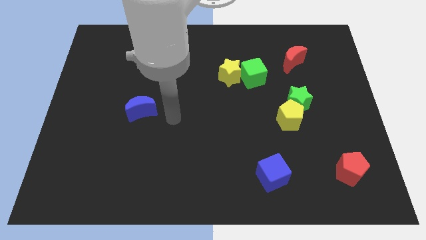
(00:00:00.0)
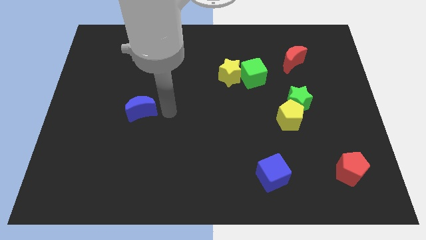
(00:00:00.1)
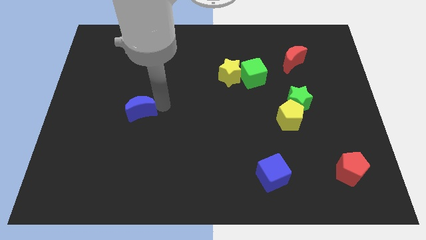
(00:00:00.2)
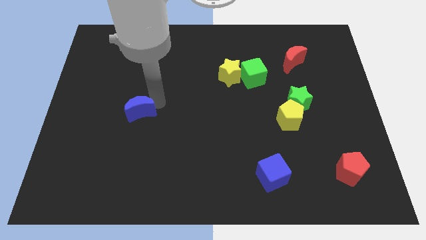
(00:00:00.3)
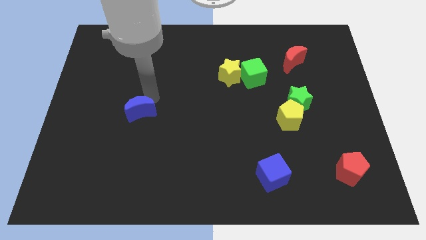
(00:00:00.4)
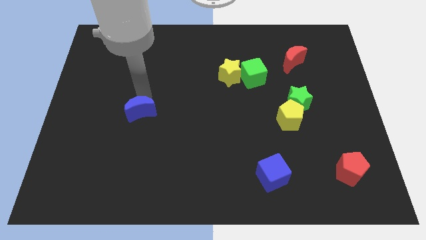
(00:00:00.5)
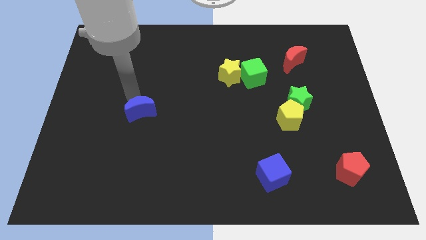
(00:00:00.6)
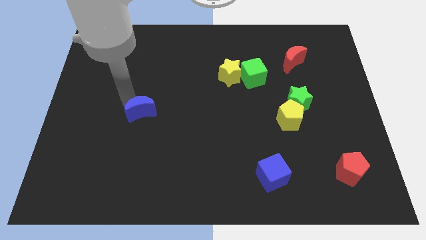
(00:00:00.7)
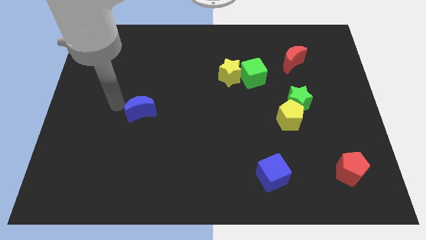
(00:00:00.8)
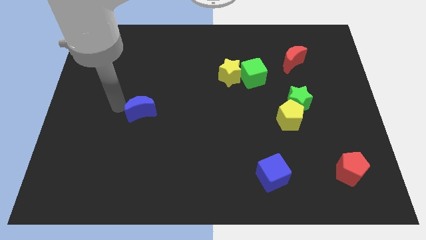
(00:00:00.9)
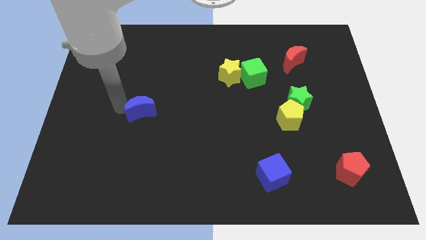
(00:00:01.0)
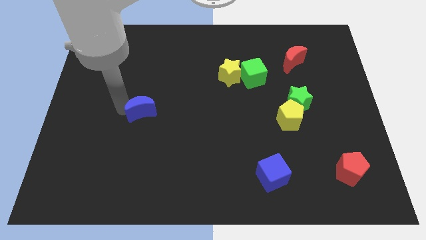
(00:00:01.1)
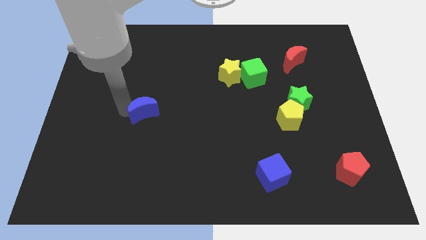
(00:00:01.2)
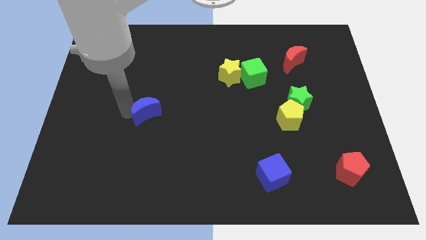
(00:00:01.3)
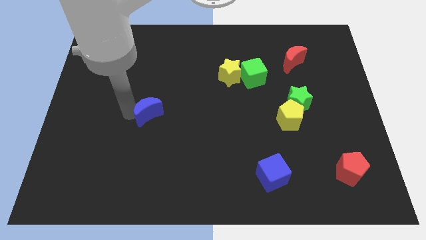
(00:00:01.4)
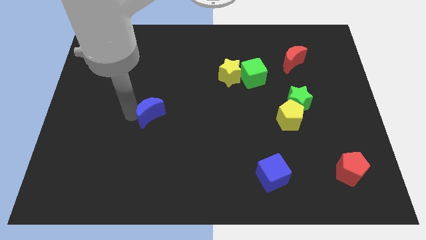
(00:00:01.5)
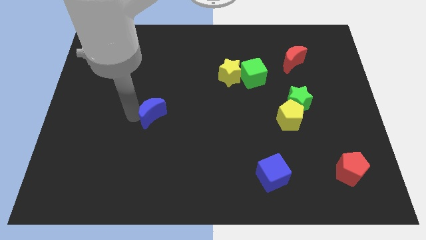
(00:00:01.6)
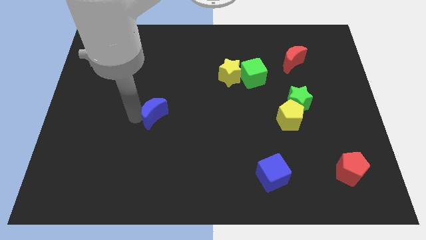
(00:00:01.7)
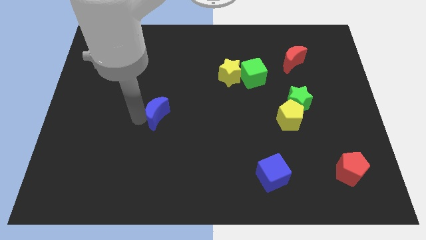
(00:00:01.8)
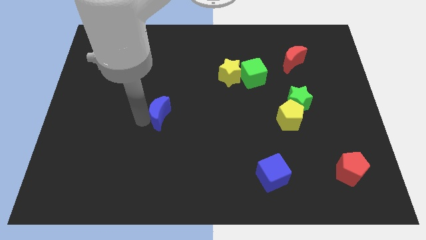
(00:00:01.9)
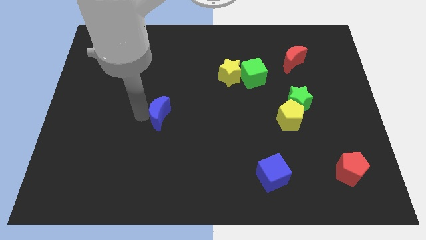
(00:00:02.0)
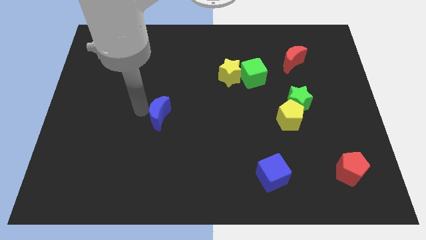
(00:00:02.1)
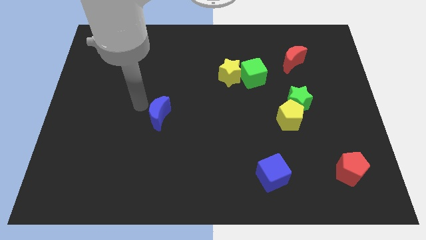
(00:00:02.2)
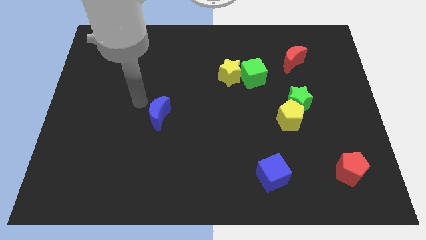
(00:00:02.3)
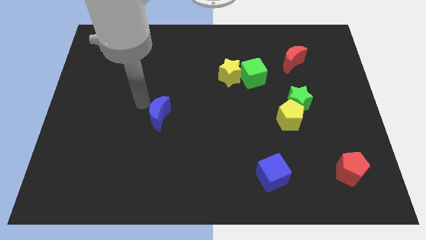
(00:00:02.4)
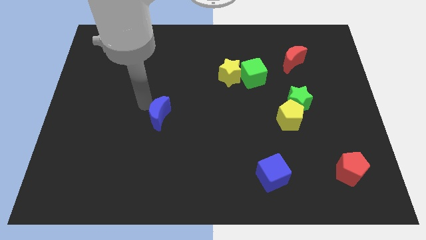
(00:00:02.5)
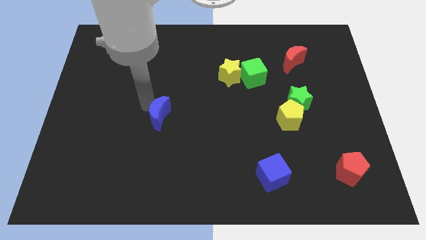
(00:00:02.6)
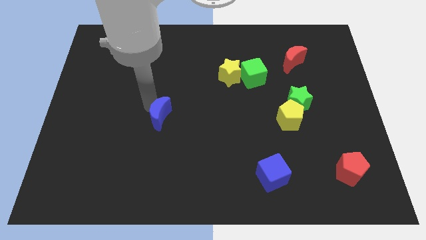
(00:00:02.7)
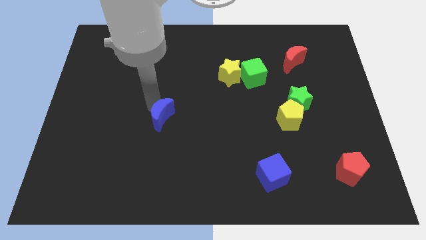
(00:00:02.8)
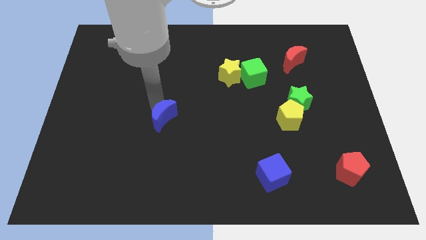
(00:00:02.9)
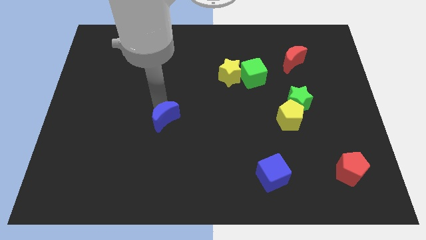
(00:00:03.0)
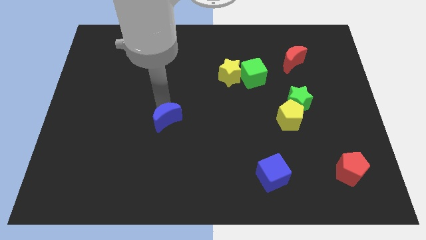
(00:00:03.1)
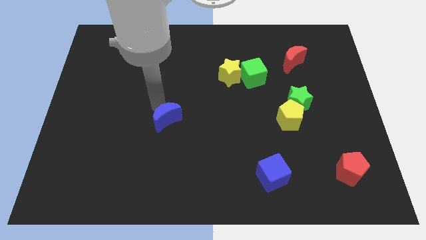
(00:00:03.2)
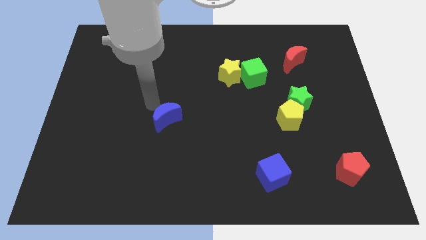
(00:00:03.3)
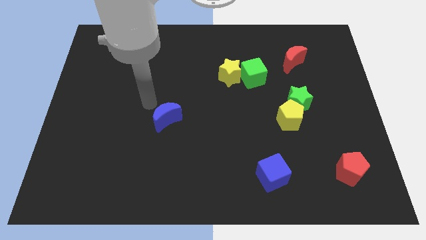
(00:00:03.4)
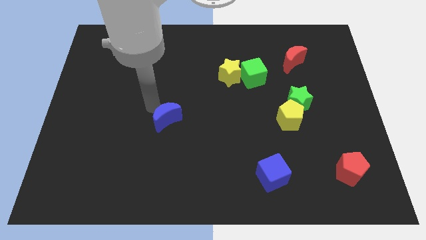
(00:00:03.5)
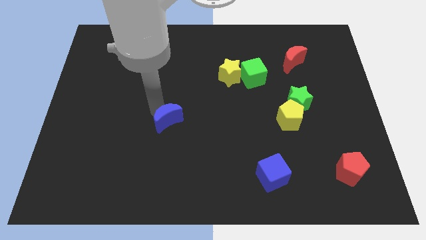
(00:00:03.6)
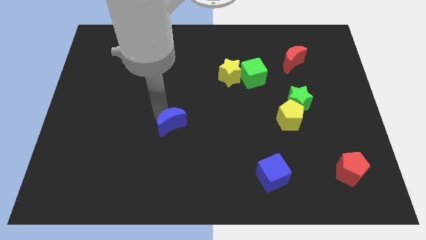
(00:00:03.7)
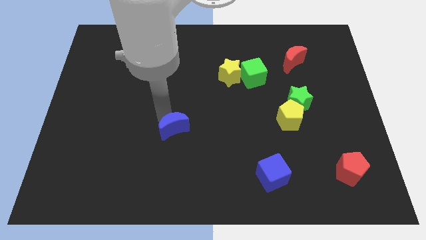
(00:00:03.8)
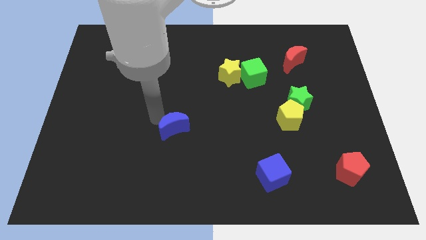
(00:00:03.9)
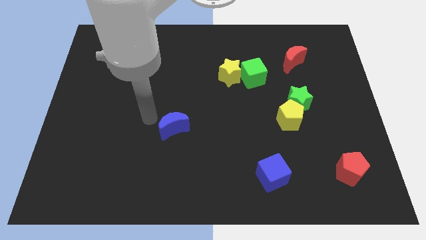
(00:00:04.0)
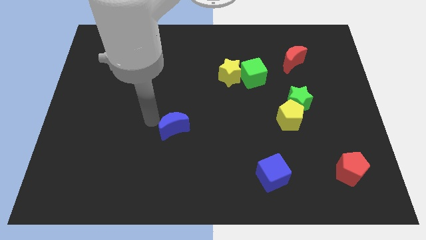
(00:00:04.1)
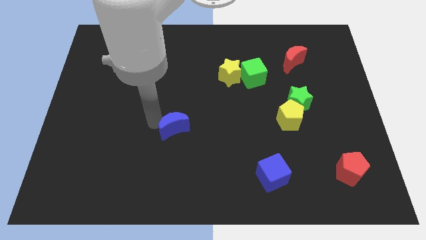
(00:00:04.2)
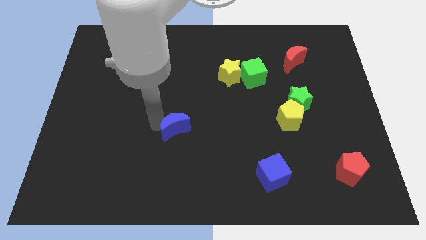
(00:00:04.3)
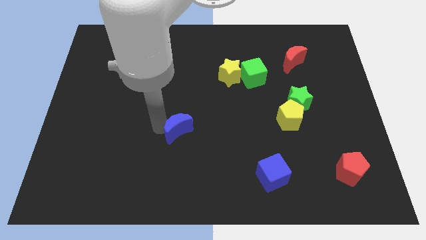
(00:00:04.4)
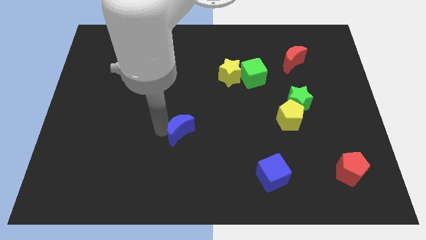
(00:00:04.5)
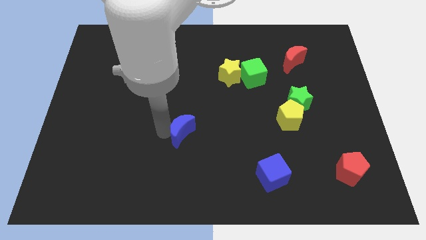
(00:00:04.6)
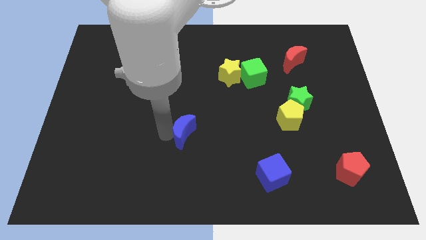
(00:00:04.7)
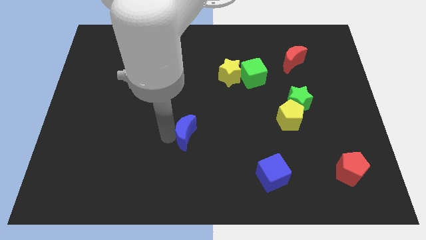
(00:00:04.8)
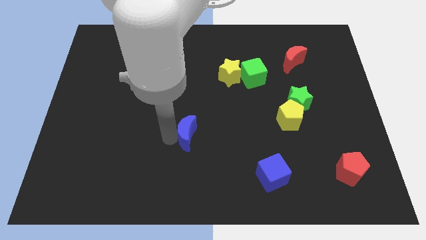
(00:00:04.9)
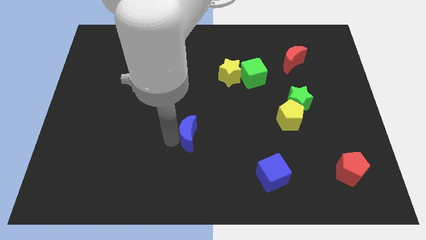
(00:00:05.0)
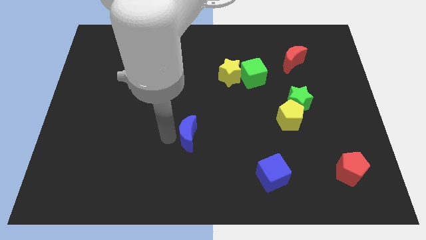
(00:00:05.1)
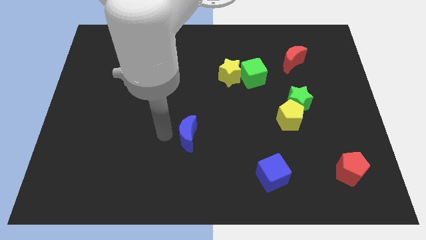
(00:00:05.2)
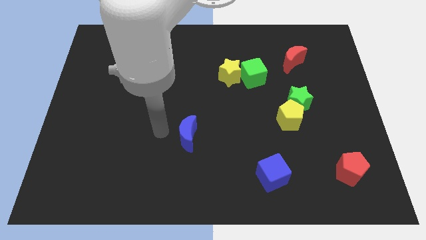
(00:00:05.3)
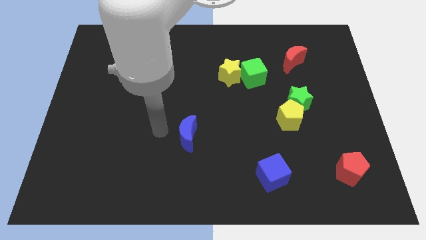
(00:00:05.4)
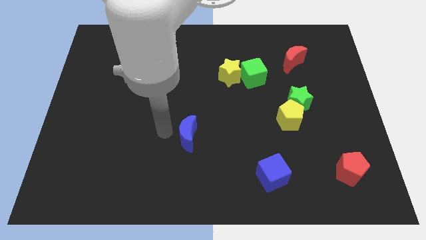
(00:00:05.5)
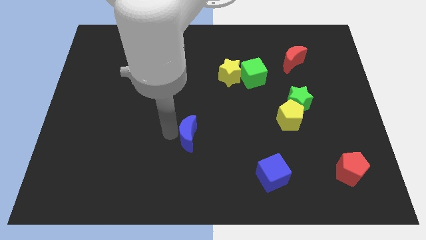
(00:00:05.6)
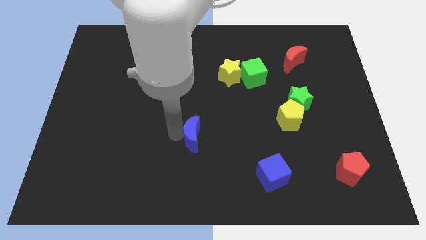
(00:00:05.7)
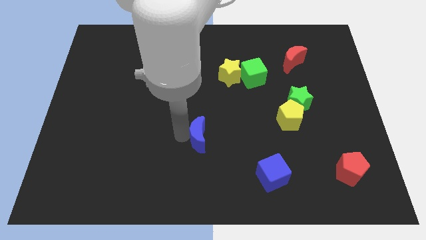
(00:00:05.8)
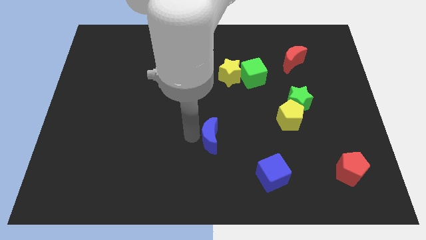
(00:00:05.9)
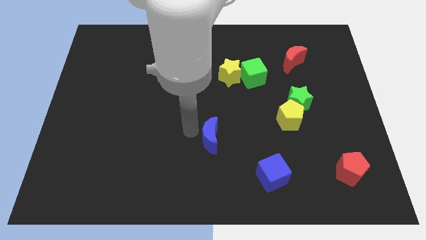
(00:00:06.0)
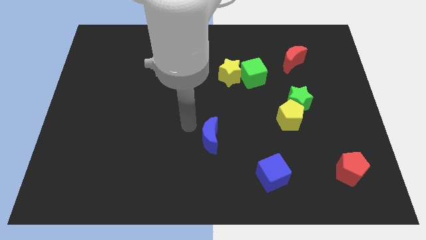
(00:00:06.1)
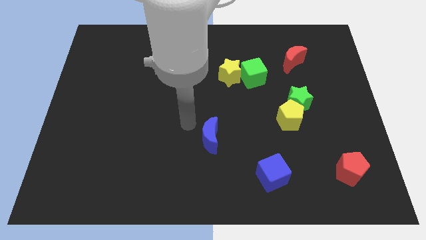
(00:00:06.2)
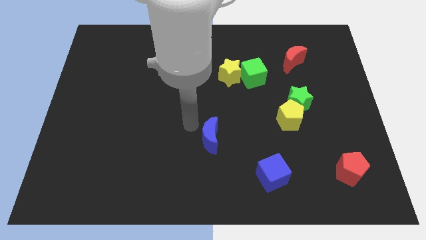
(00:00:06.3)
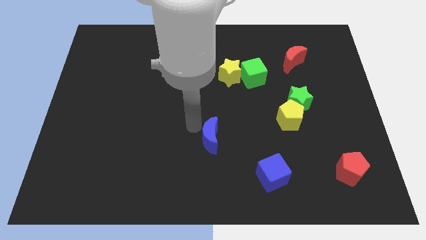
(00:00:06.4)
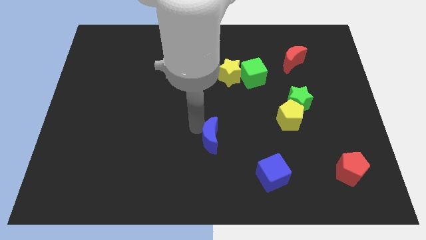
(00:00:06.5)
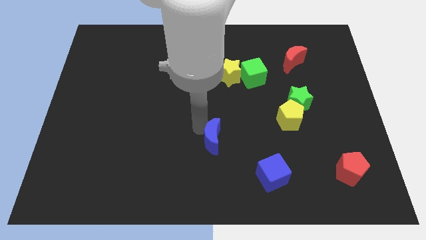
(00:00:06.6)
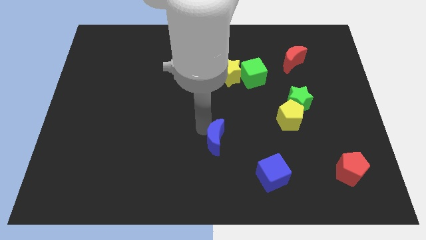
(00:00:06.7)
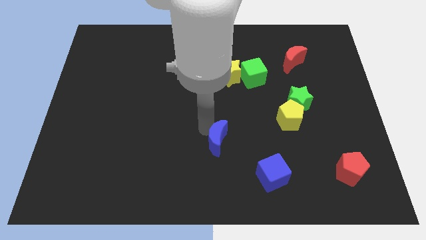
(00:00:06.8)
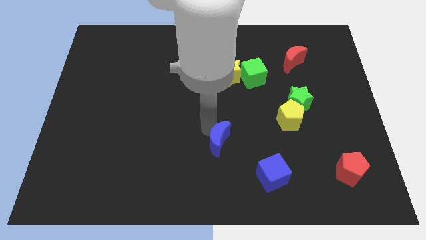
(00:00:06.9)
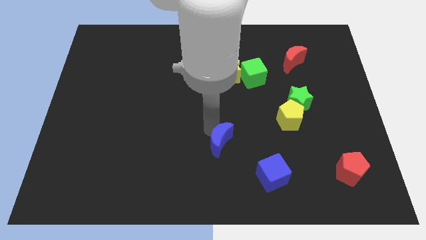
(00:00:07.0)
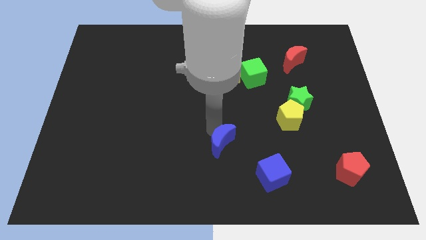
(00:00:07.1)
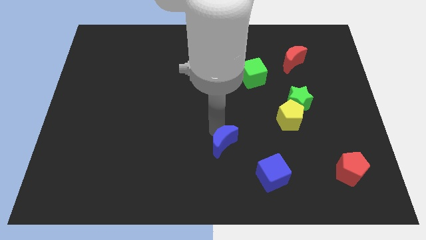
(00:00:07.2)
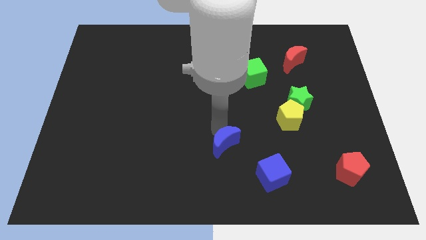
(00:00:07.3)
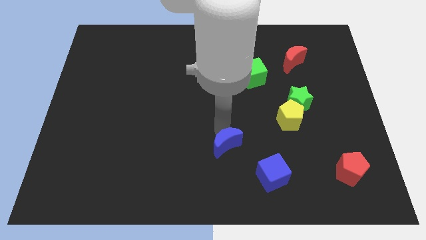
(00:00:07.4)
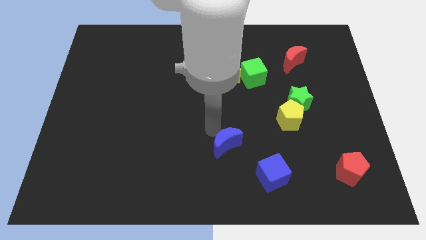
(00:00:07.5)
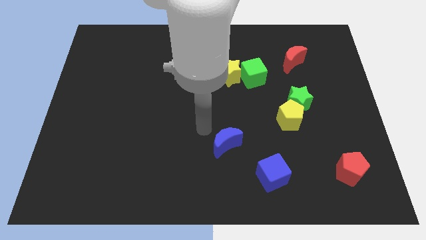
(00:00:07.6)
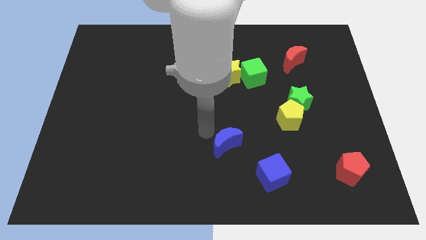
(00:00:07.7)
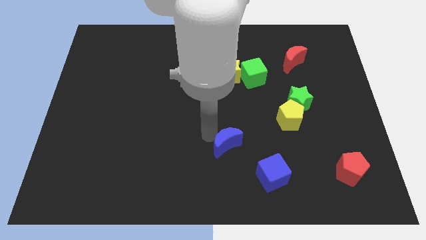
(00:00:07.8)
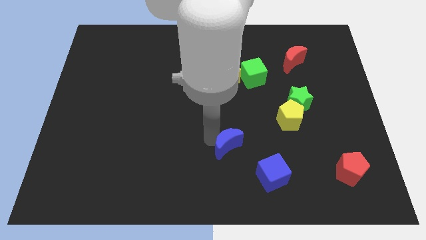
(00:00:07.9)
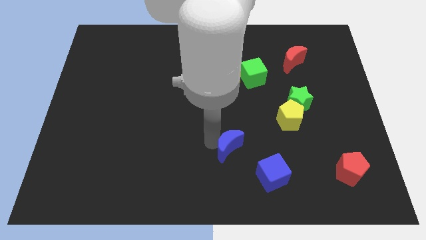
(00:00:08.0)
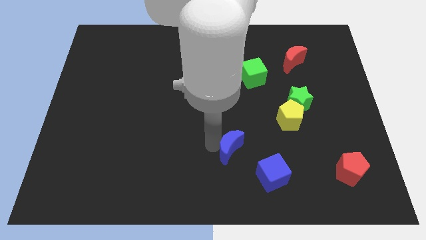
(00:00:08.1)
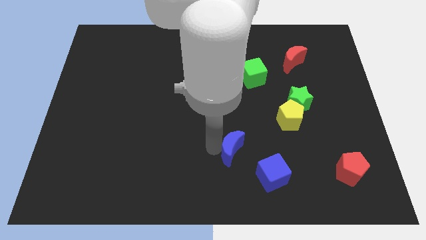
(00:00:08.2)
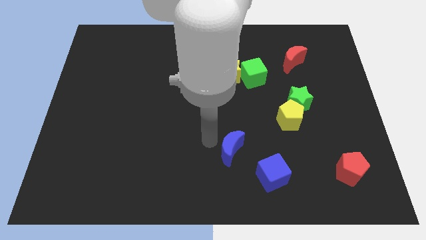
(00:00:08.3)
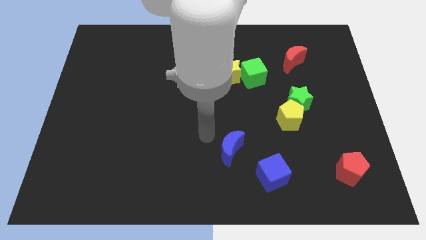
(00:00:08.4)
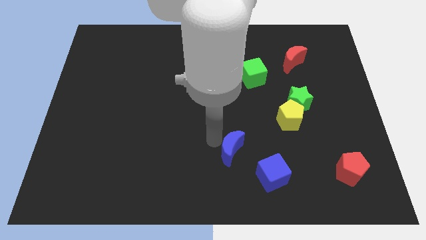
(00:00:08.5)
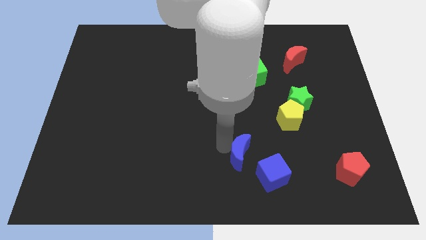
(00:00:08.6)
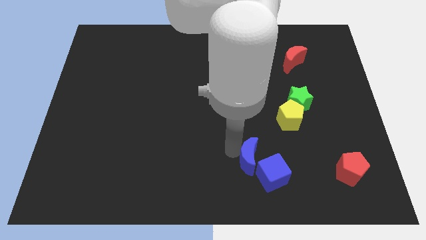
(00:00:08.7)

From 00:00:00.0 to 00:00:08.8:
slide the blue moon to the blue cube
